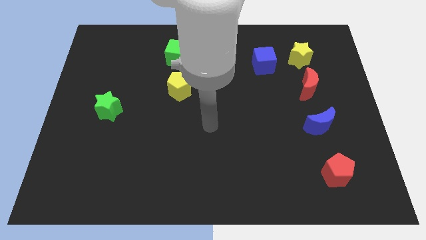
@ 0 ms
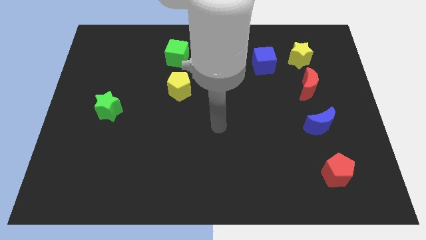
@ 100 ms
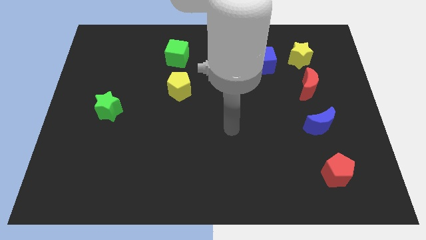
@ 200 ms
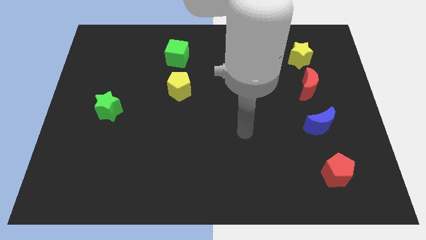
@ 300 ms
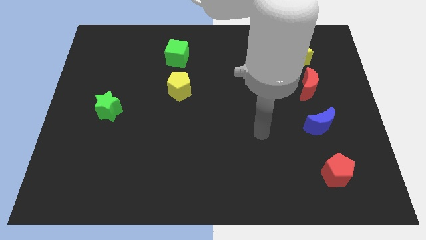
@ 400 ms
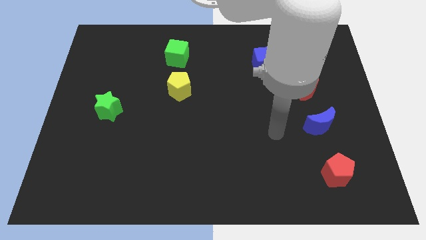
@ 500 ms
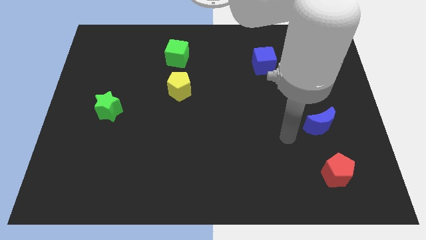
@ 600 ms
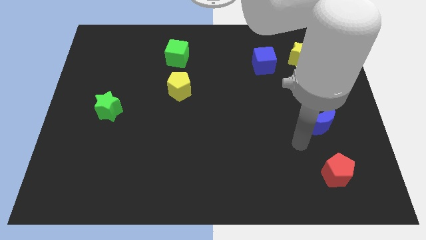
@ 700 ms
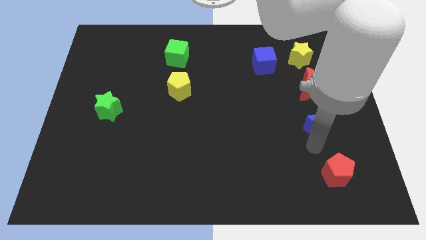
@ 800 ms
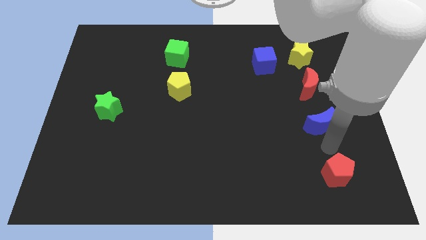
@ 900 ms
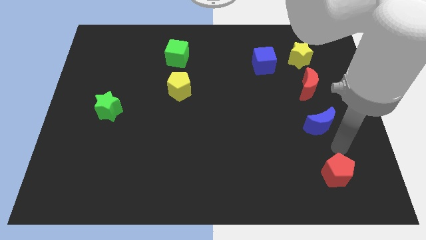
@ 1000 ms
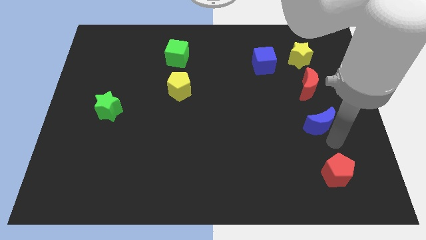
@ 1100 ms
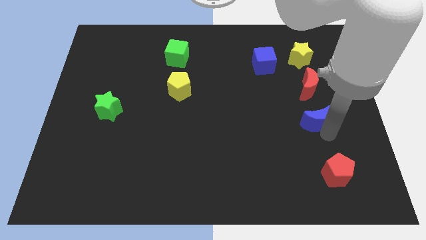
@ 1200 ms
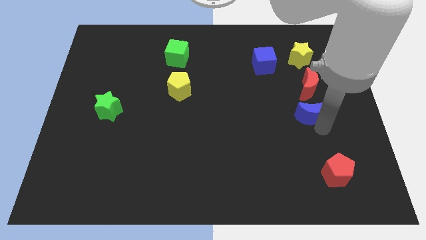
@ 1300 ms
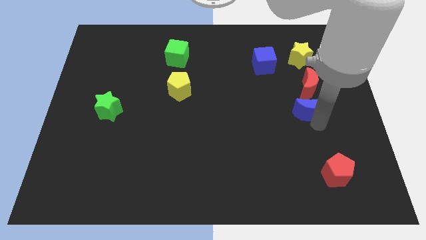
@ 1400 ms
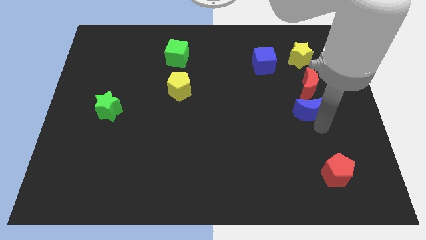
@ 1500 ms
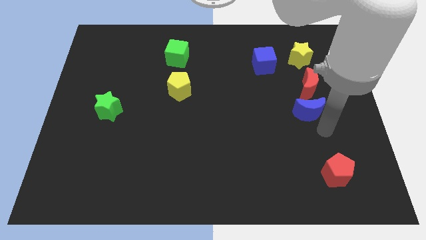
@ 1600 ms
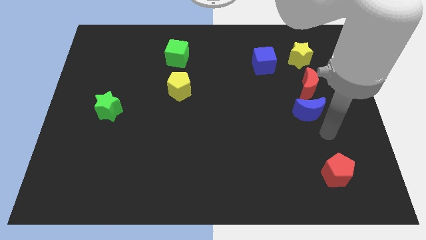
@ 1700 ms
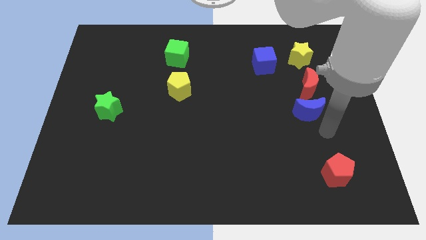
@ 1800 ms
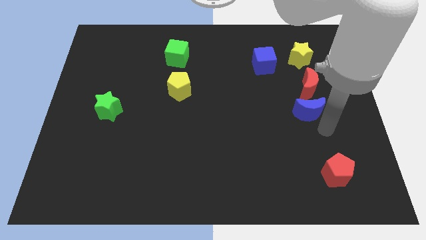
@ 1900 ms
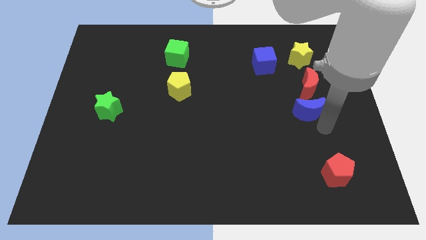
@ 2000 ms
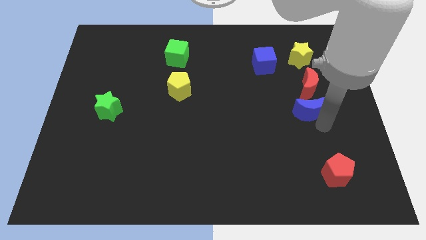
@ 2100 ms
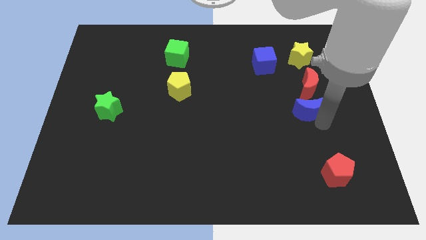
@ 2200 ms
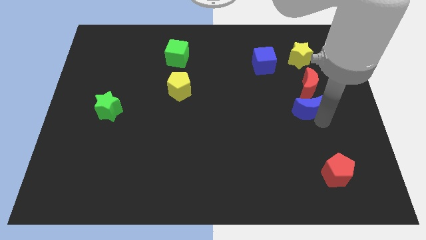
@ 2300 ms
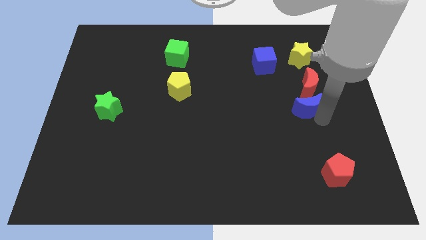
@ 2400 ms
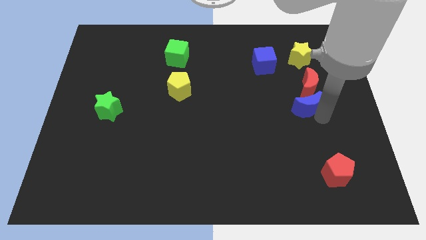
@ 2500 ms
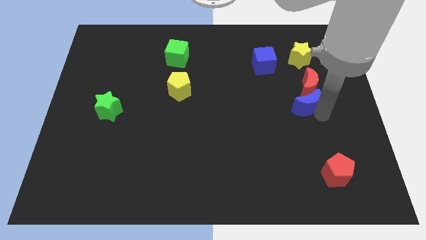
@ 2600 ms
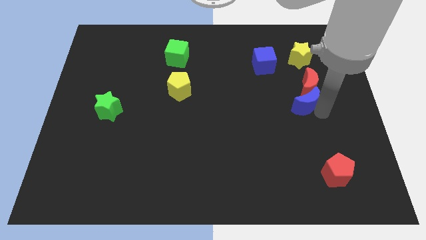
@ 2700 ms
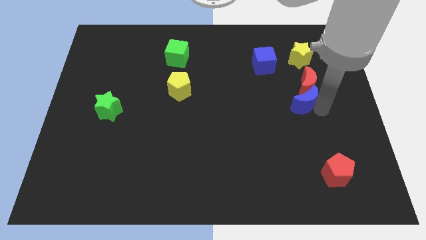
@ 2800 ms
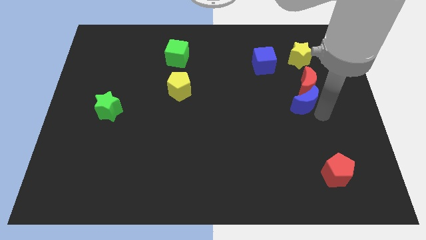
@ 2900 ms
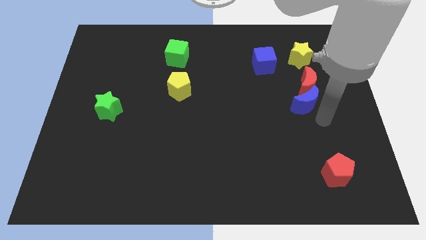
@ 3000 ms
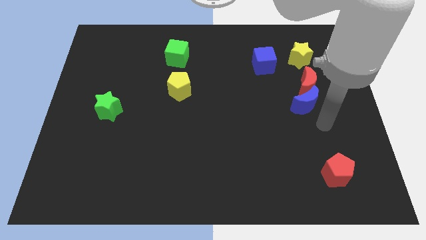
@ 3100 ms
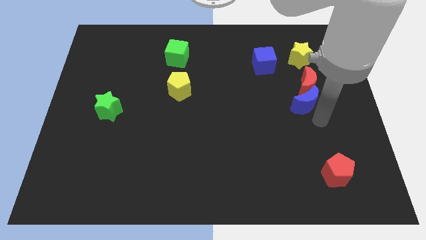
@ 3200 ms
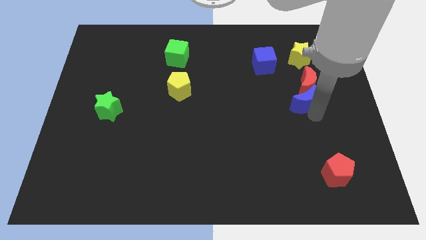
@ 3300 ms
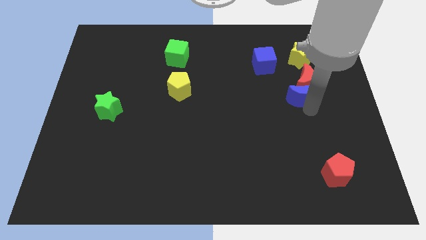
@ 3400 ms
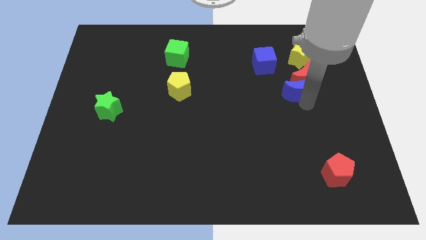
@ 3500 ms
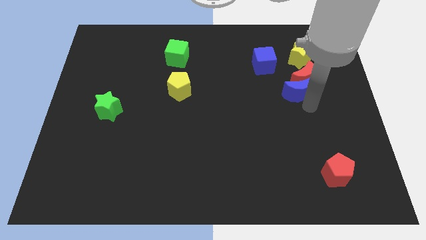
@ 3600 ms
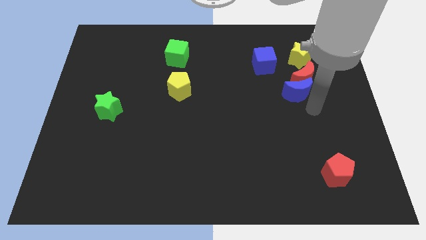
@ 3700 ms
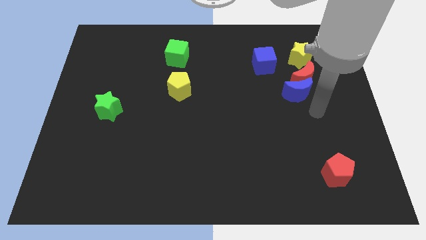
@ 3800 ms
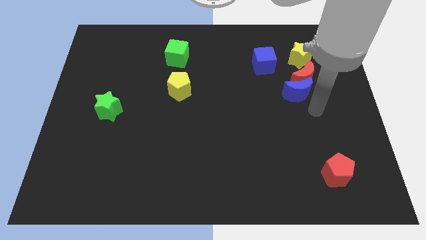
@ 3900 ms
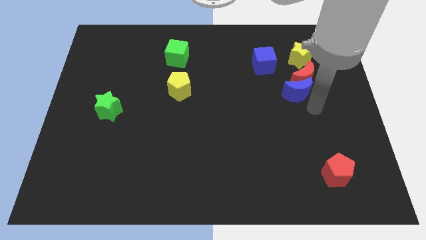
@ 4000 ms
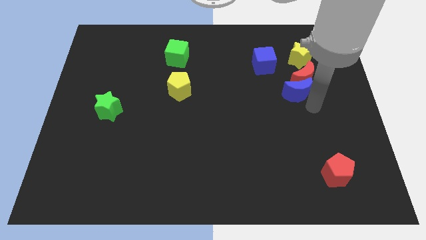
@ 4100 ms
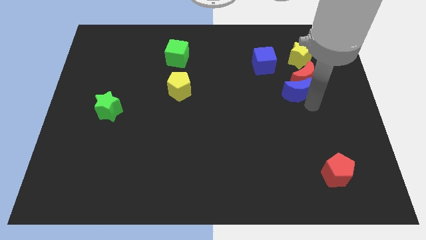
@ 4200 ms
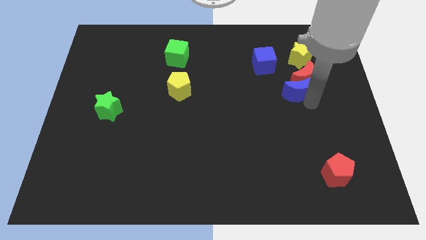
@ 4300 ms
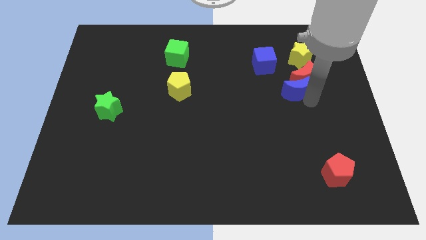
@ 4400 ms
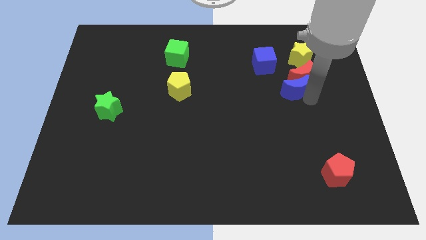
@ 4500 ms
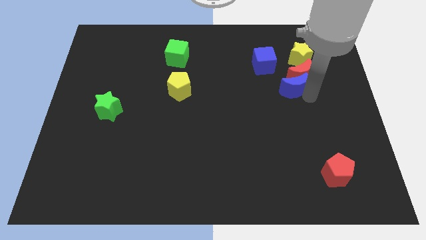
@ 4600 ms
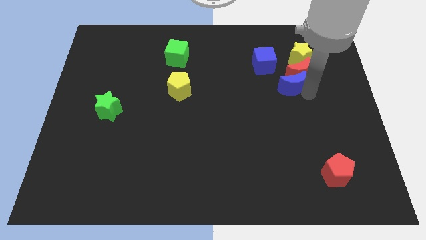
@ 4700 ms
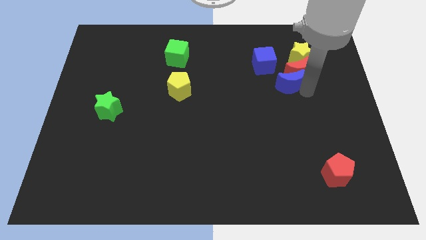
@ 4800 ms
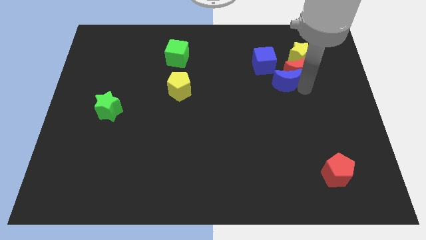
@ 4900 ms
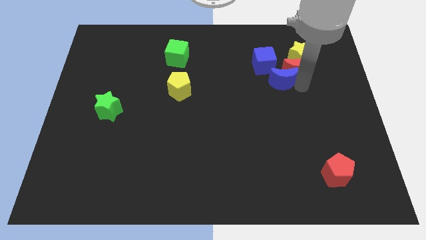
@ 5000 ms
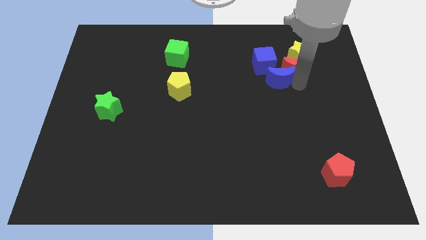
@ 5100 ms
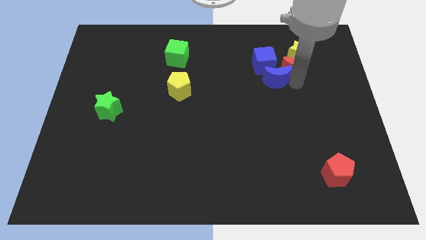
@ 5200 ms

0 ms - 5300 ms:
slide the blue moon close to the blue cube

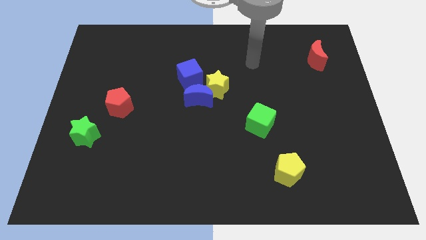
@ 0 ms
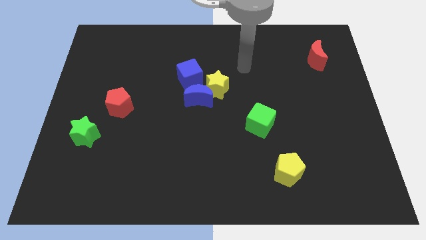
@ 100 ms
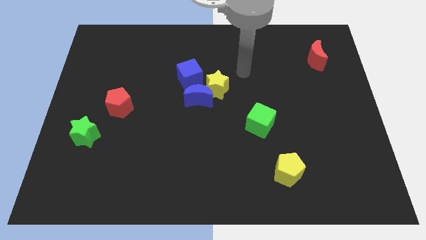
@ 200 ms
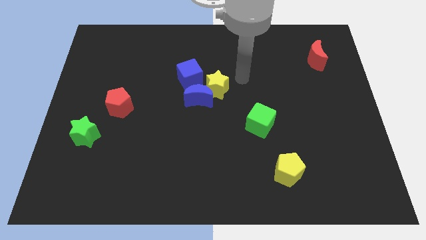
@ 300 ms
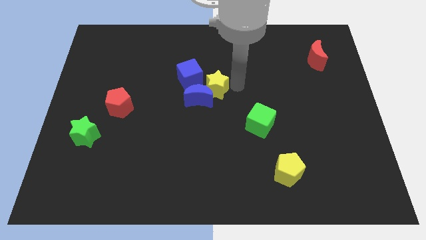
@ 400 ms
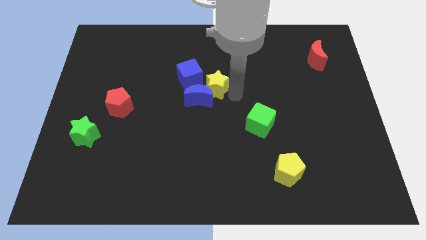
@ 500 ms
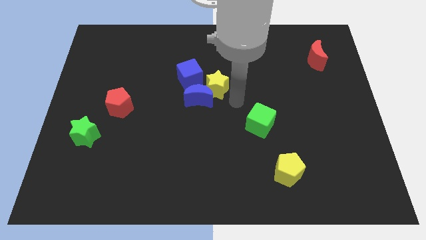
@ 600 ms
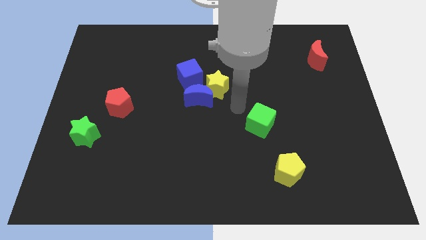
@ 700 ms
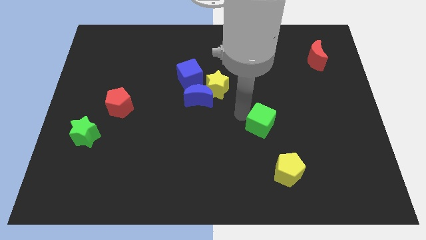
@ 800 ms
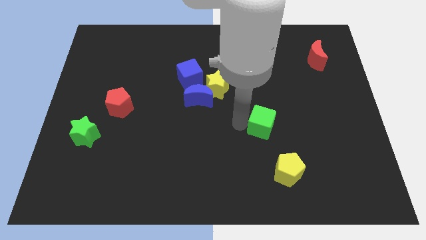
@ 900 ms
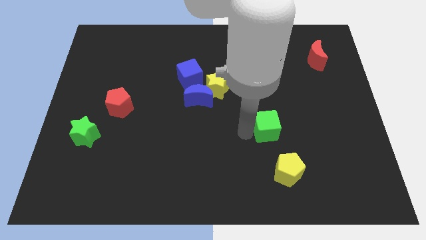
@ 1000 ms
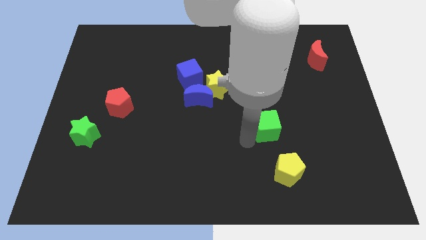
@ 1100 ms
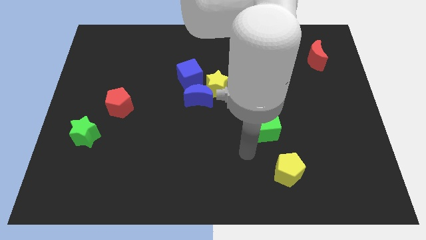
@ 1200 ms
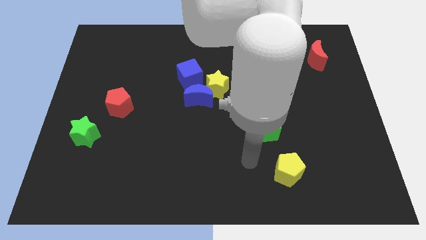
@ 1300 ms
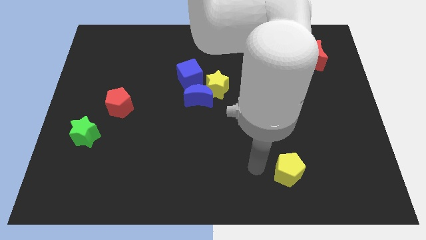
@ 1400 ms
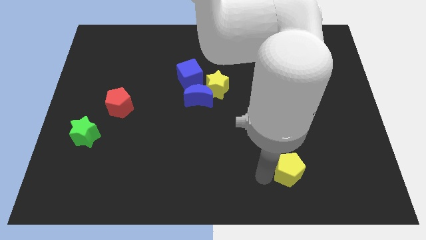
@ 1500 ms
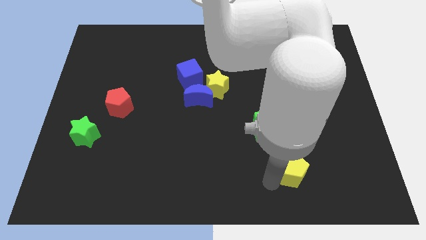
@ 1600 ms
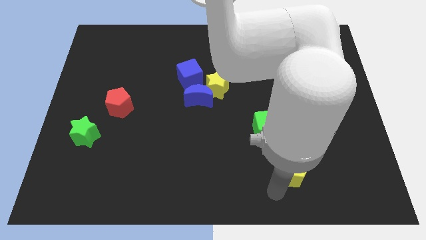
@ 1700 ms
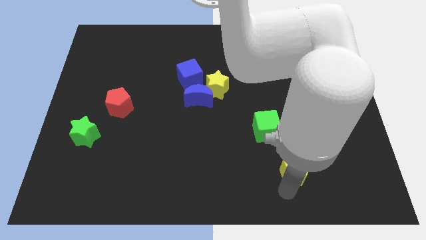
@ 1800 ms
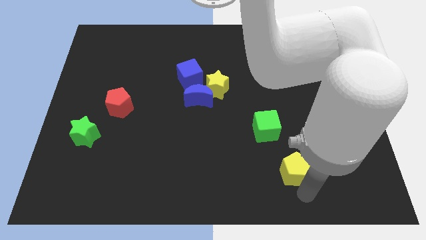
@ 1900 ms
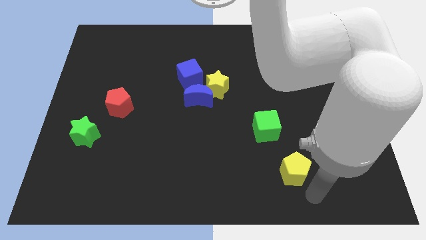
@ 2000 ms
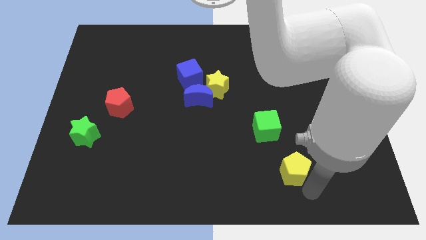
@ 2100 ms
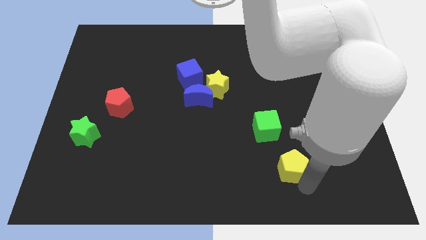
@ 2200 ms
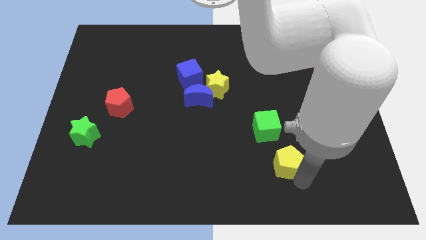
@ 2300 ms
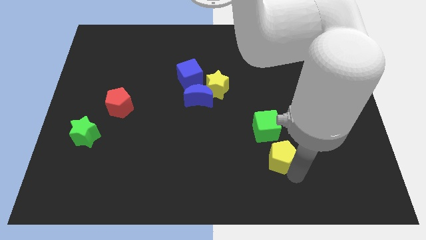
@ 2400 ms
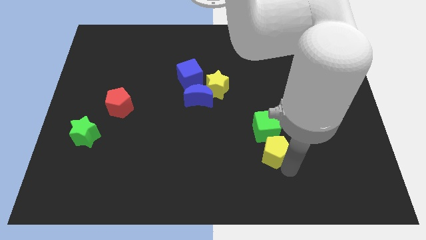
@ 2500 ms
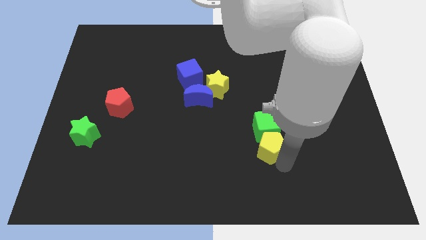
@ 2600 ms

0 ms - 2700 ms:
slide the yellow pentagon to the green cube
